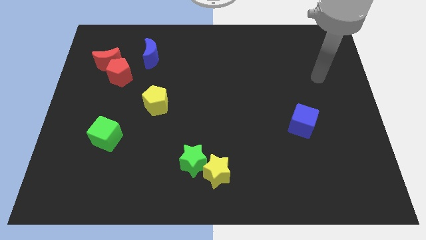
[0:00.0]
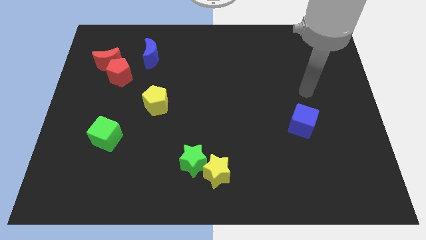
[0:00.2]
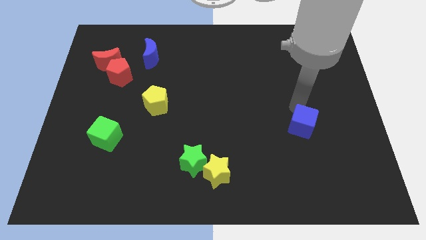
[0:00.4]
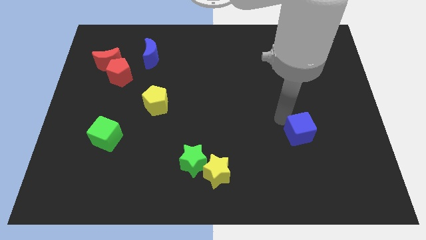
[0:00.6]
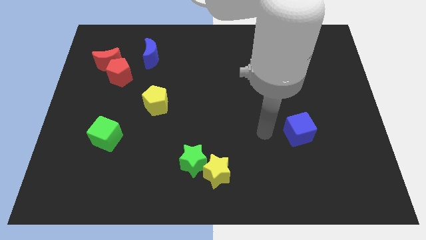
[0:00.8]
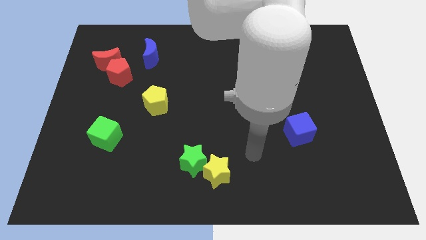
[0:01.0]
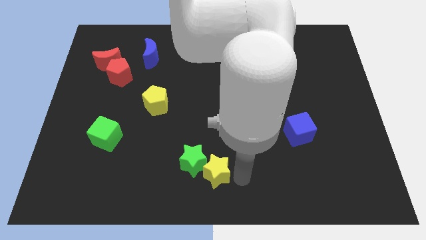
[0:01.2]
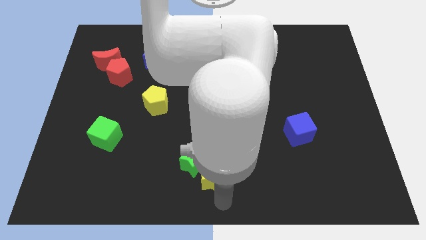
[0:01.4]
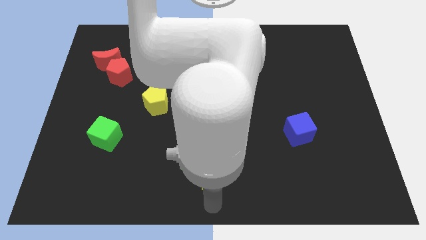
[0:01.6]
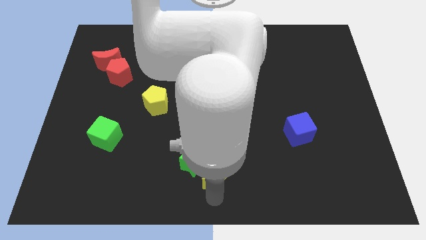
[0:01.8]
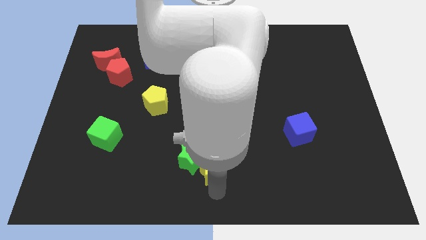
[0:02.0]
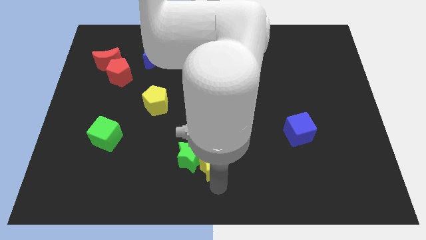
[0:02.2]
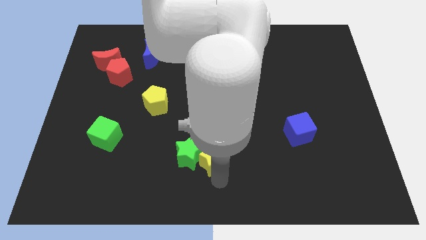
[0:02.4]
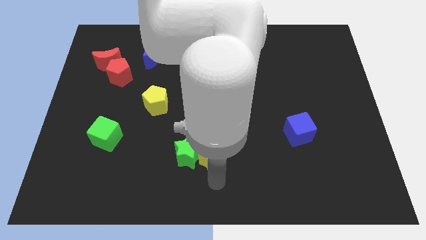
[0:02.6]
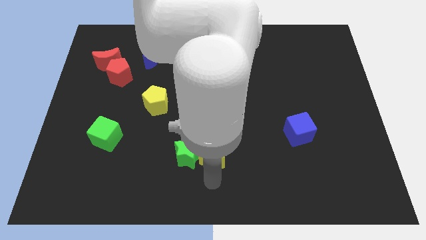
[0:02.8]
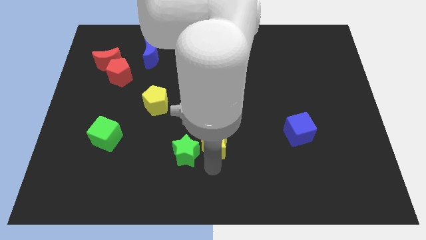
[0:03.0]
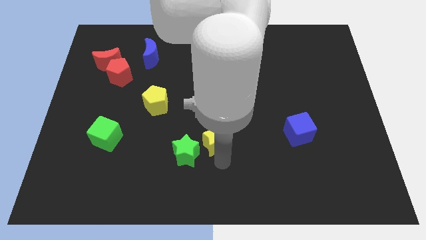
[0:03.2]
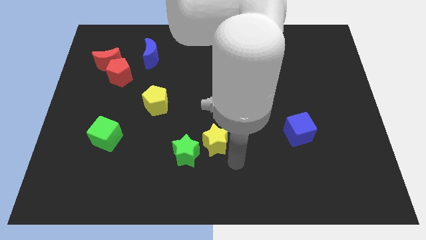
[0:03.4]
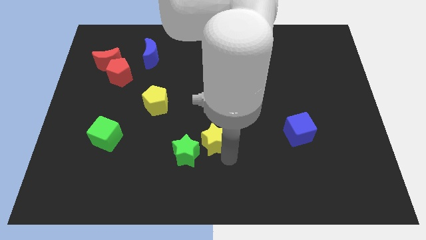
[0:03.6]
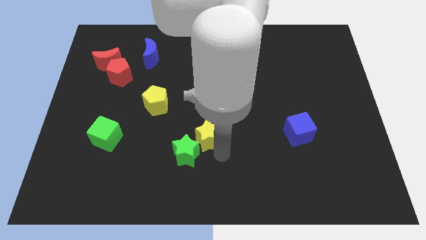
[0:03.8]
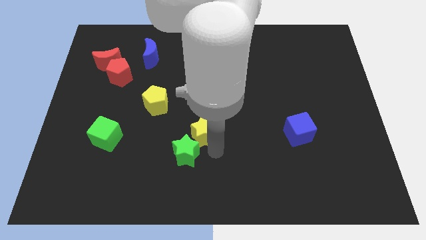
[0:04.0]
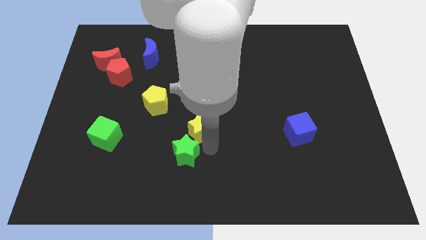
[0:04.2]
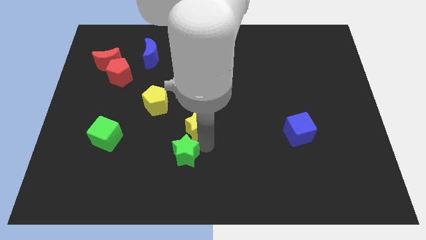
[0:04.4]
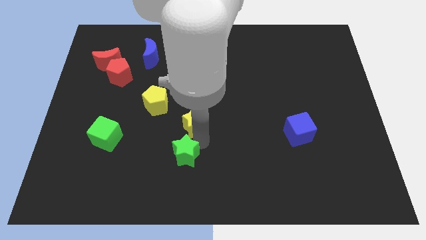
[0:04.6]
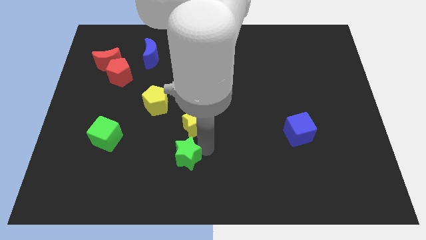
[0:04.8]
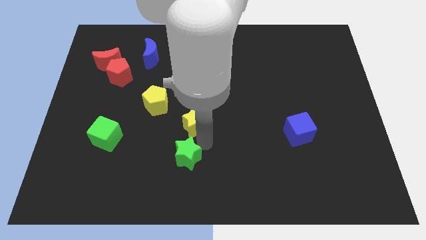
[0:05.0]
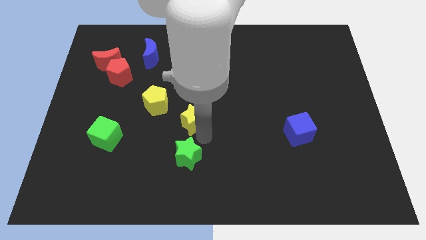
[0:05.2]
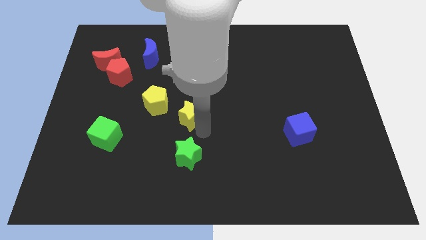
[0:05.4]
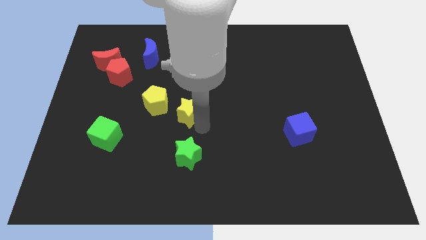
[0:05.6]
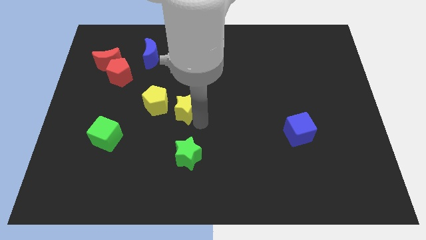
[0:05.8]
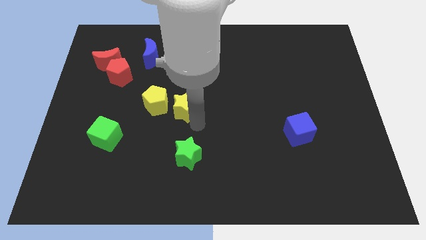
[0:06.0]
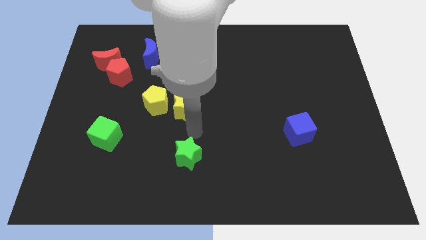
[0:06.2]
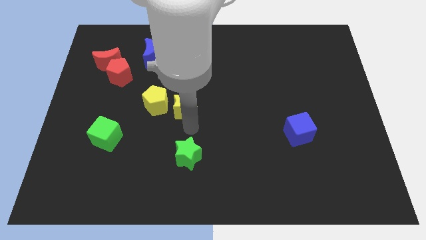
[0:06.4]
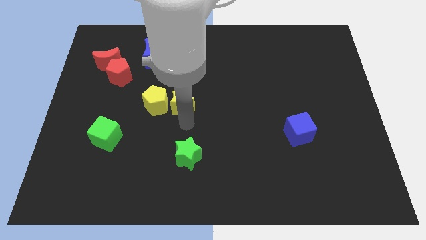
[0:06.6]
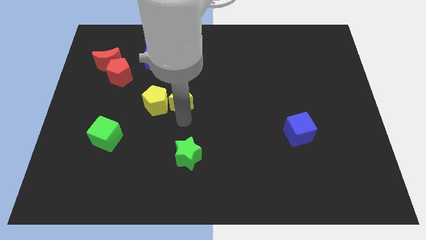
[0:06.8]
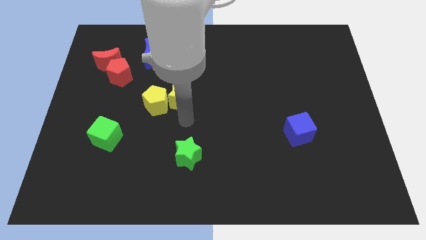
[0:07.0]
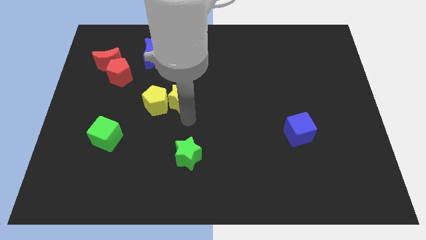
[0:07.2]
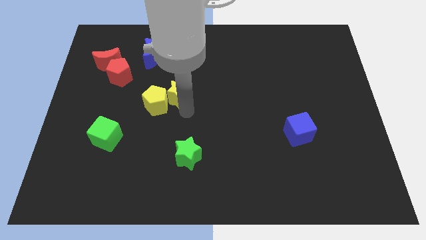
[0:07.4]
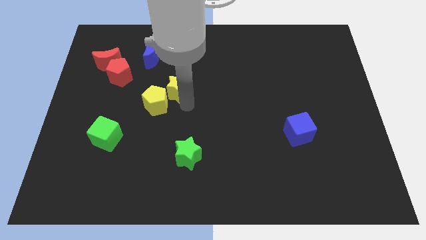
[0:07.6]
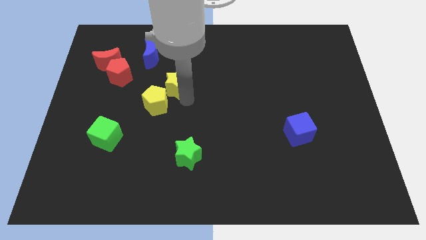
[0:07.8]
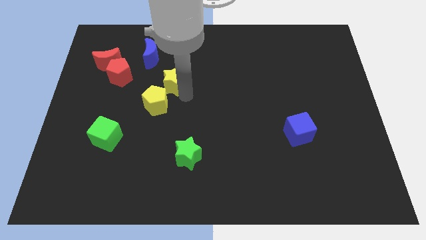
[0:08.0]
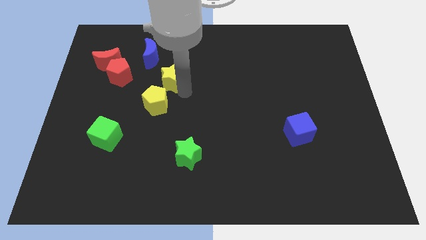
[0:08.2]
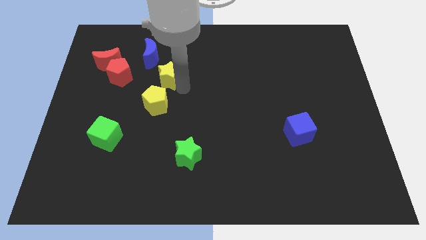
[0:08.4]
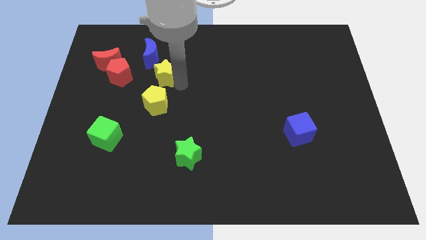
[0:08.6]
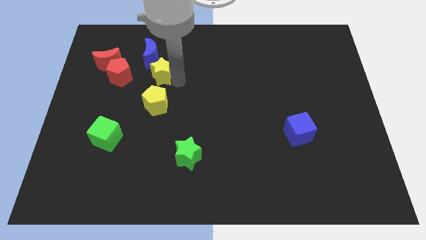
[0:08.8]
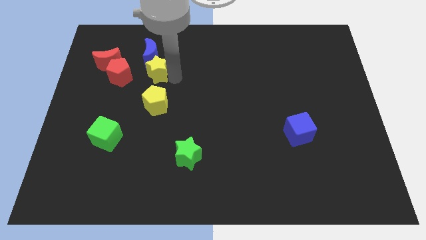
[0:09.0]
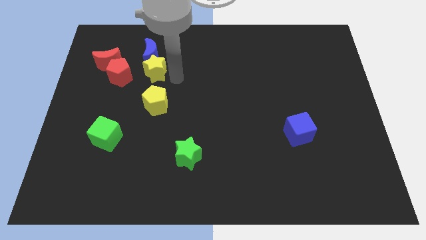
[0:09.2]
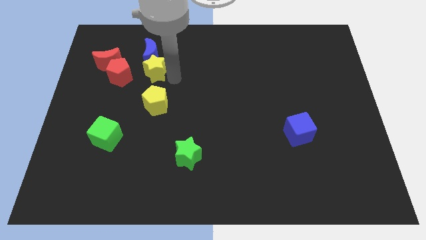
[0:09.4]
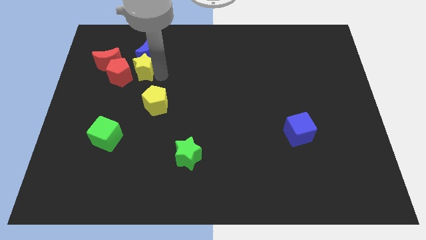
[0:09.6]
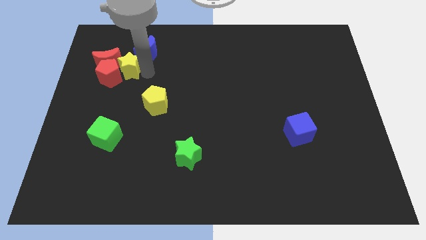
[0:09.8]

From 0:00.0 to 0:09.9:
push the yellow star next to the red moon

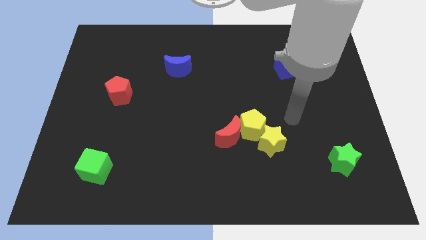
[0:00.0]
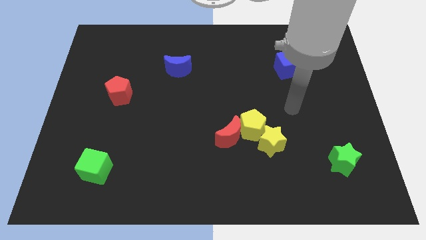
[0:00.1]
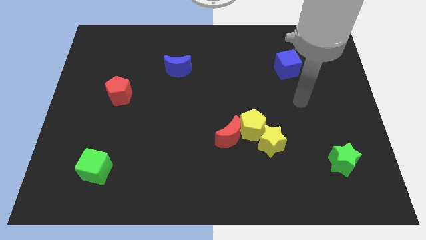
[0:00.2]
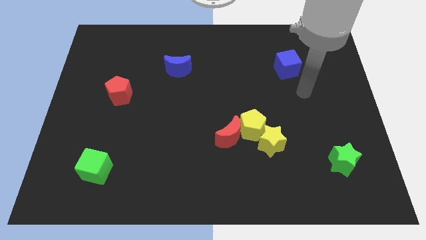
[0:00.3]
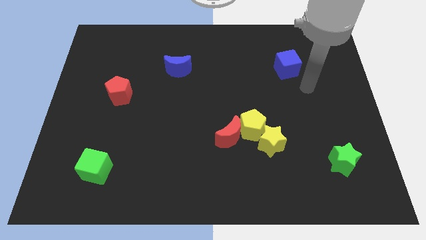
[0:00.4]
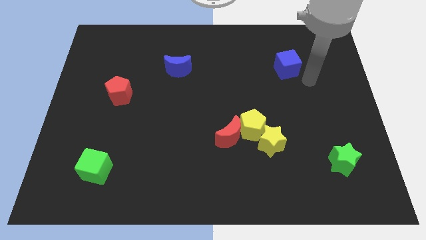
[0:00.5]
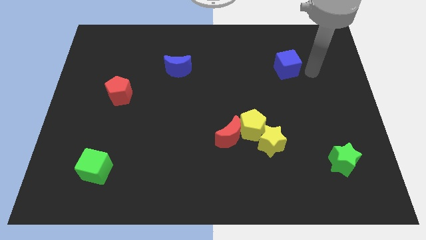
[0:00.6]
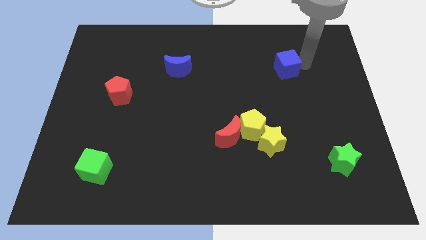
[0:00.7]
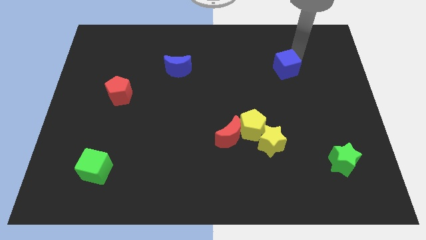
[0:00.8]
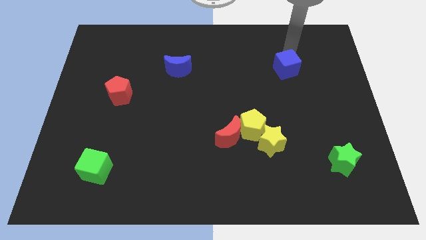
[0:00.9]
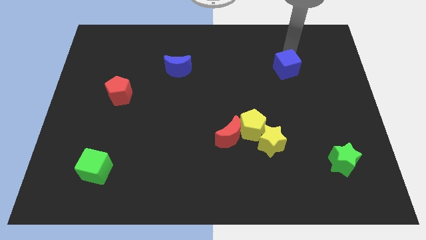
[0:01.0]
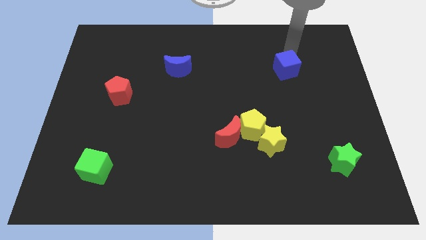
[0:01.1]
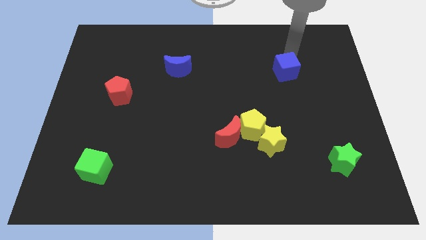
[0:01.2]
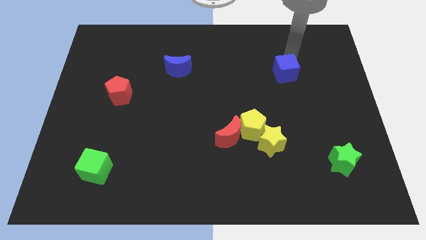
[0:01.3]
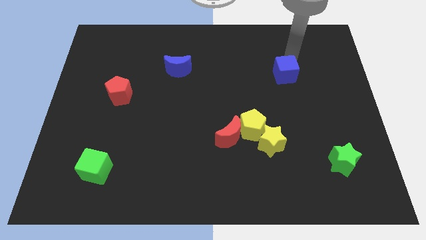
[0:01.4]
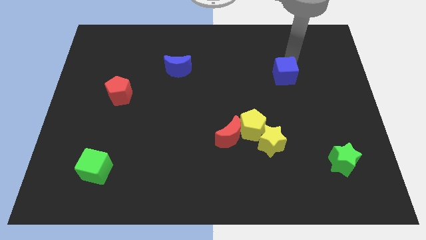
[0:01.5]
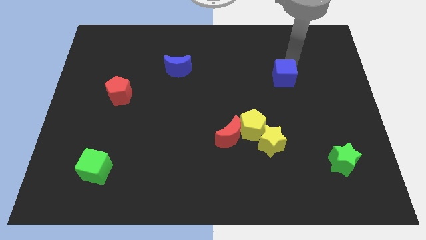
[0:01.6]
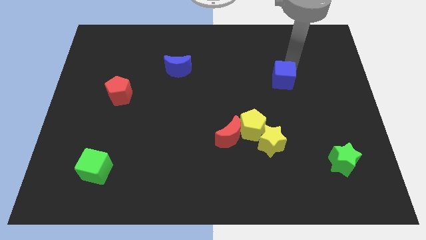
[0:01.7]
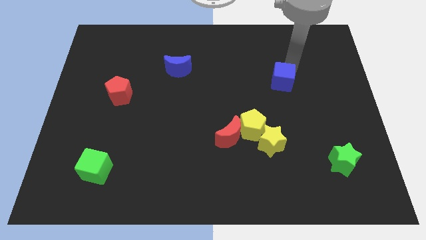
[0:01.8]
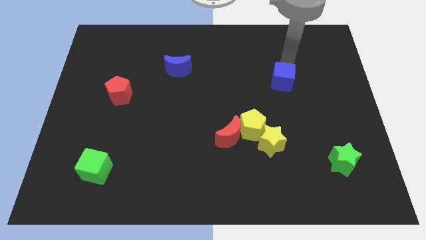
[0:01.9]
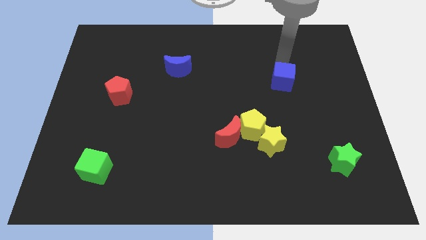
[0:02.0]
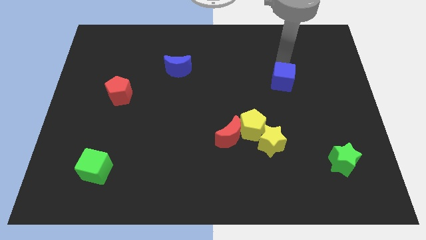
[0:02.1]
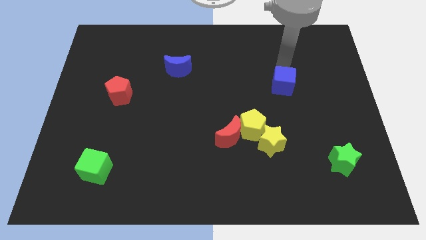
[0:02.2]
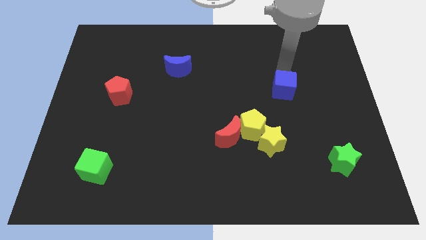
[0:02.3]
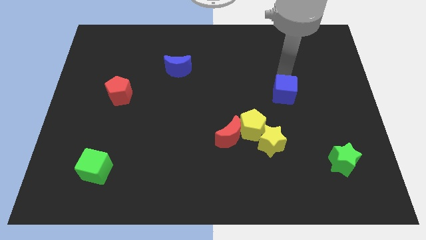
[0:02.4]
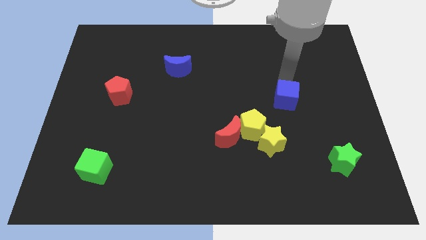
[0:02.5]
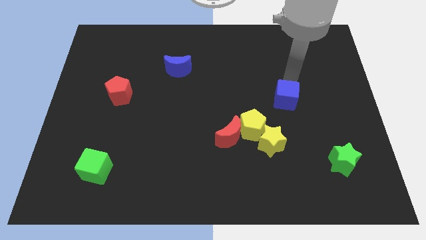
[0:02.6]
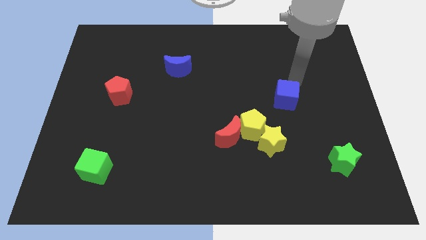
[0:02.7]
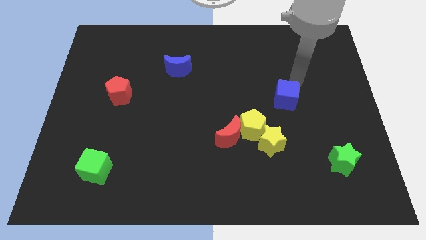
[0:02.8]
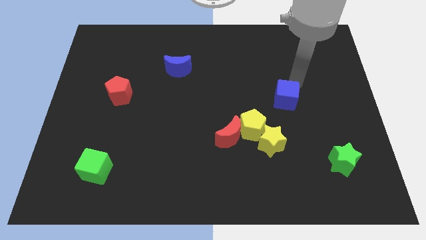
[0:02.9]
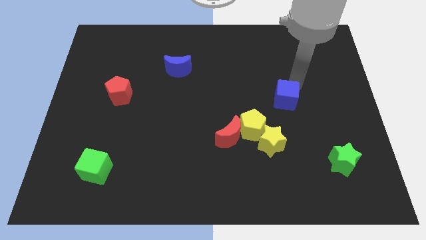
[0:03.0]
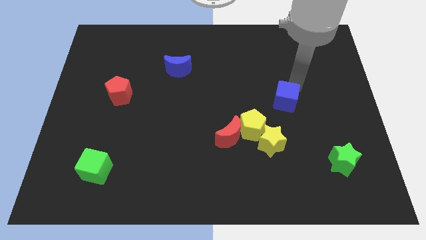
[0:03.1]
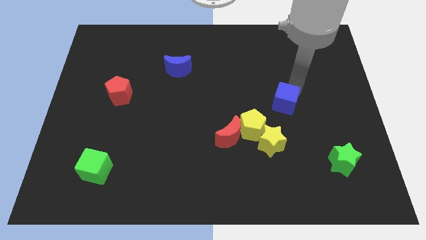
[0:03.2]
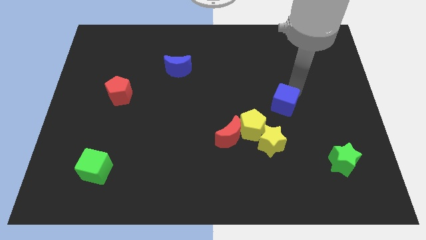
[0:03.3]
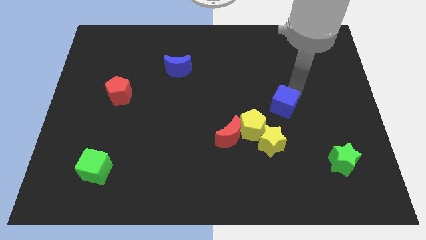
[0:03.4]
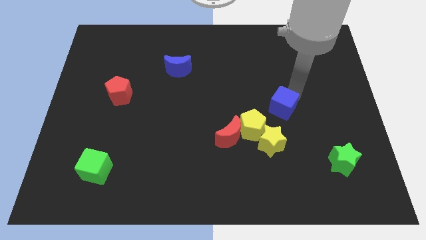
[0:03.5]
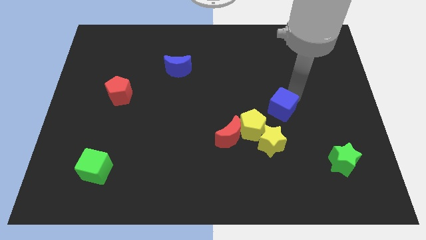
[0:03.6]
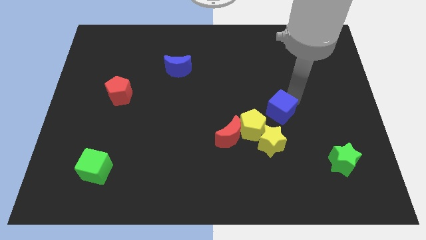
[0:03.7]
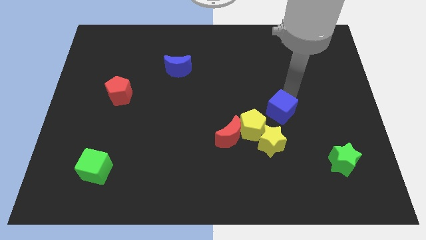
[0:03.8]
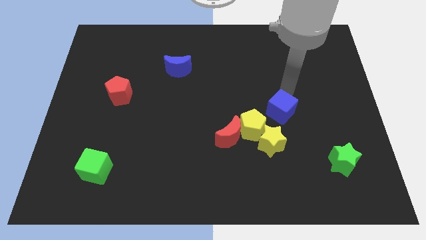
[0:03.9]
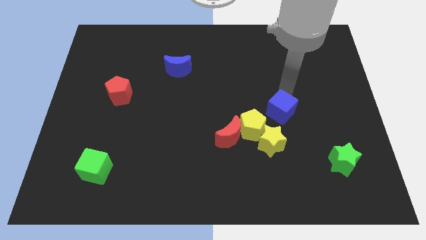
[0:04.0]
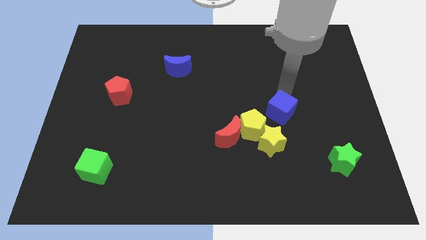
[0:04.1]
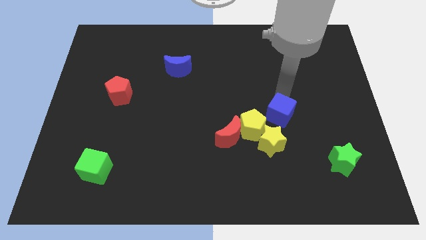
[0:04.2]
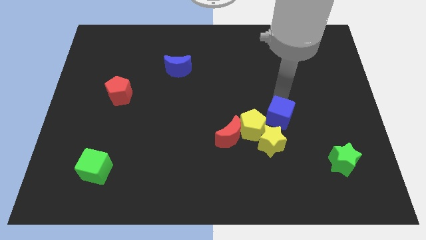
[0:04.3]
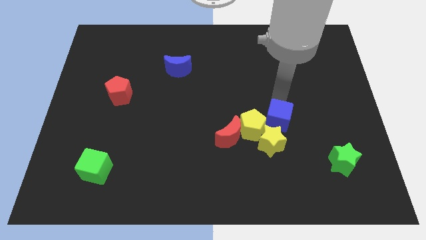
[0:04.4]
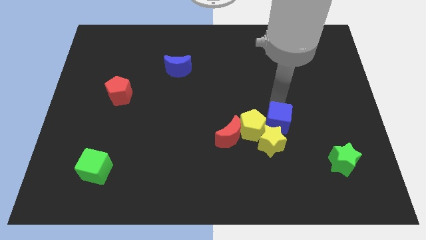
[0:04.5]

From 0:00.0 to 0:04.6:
move the blue cube next to the yellow star
